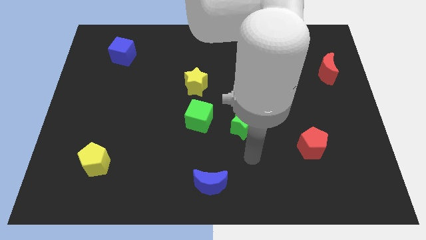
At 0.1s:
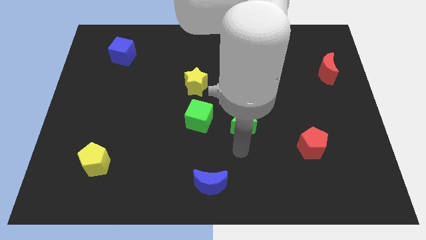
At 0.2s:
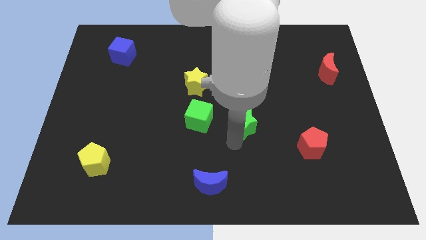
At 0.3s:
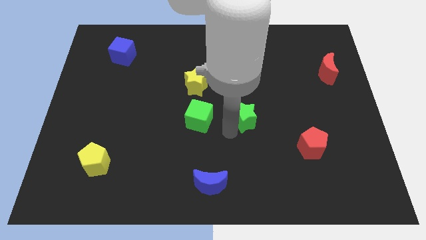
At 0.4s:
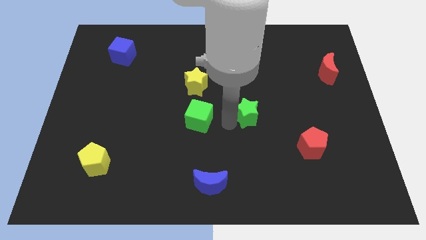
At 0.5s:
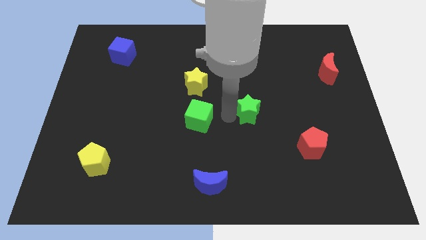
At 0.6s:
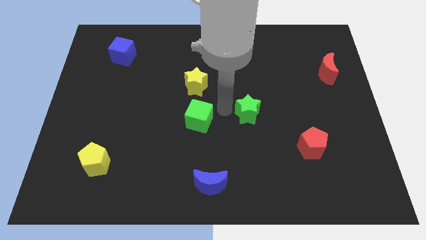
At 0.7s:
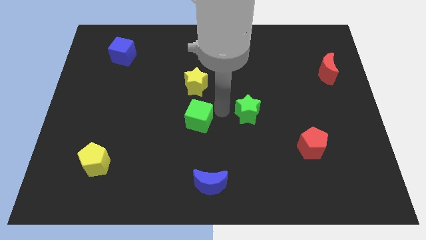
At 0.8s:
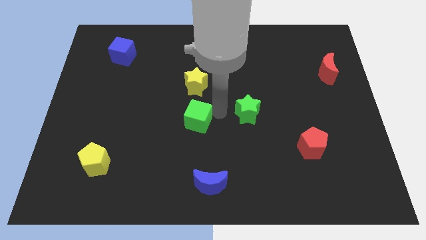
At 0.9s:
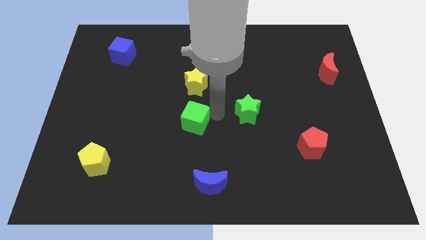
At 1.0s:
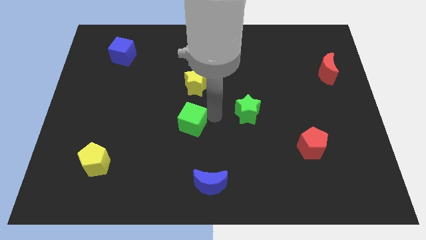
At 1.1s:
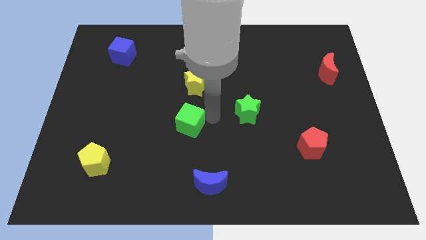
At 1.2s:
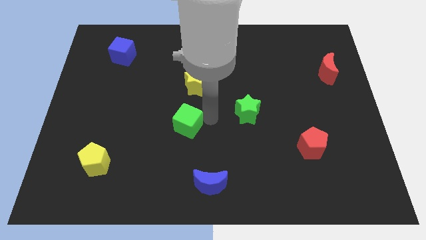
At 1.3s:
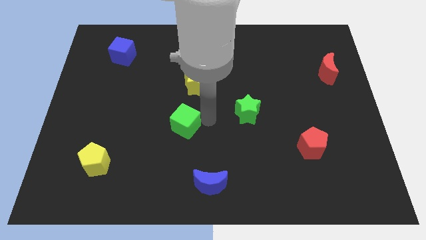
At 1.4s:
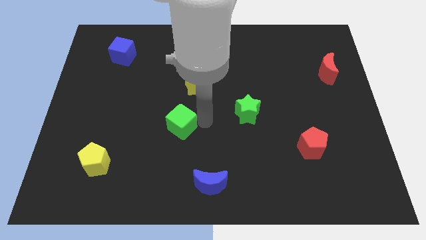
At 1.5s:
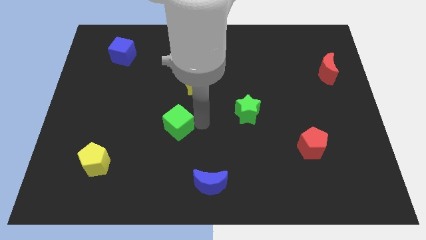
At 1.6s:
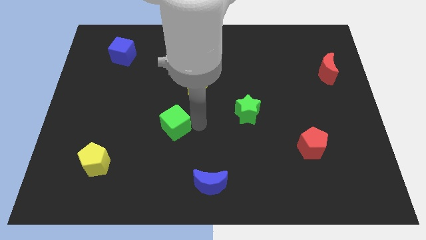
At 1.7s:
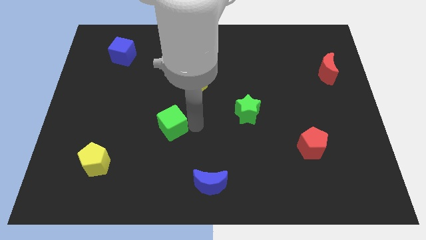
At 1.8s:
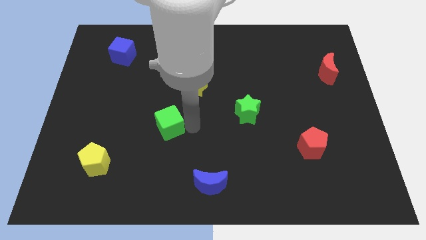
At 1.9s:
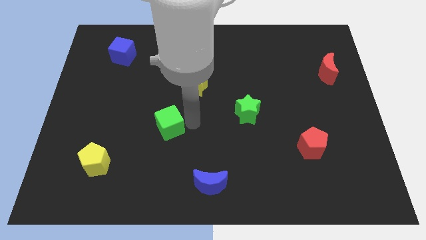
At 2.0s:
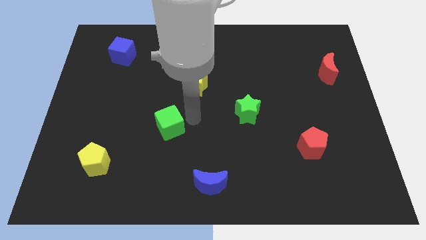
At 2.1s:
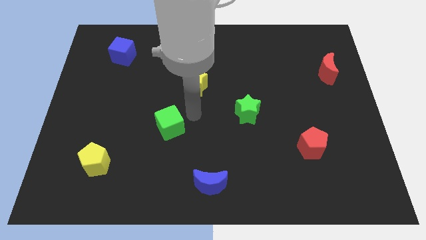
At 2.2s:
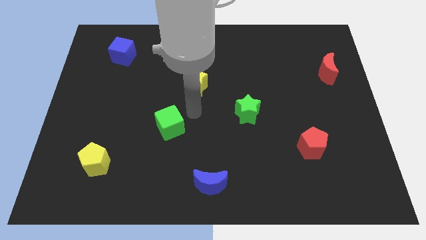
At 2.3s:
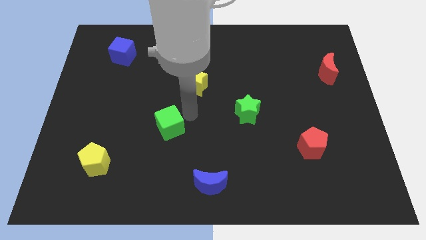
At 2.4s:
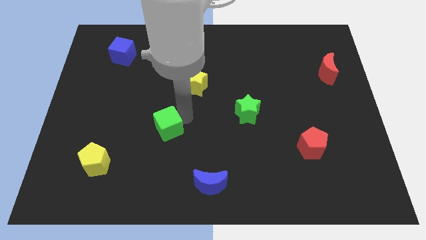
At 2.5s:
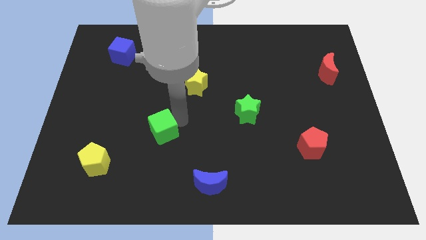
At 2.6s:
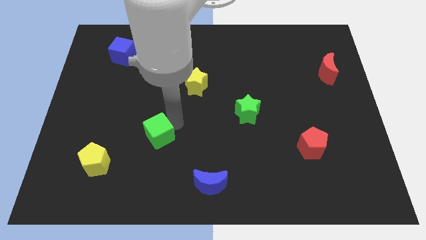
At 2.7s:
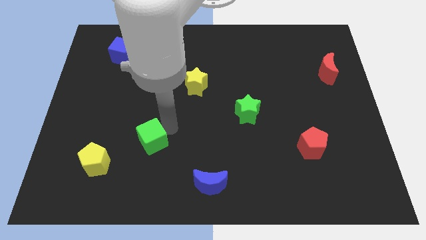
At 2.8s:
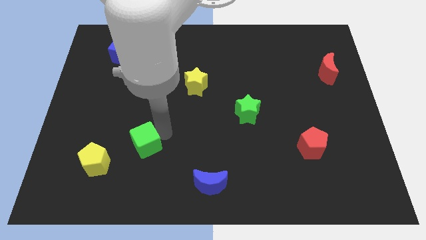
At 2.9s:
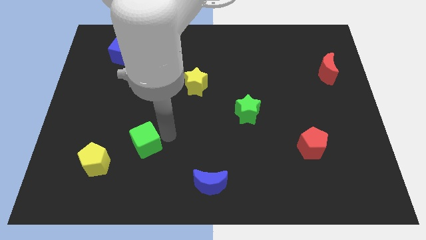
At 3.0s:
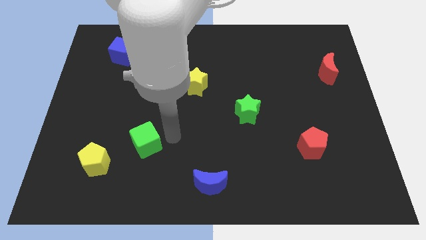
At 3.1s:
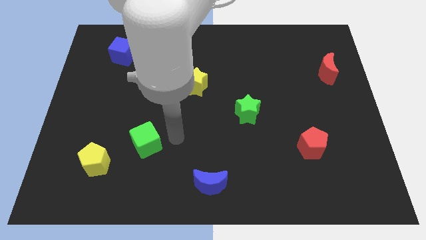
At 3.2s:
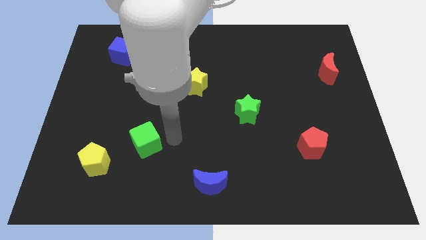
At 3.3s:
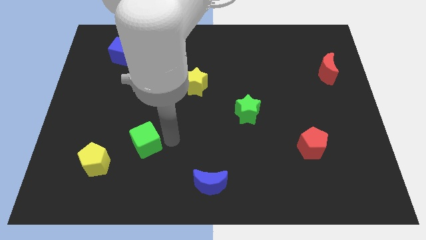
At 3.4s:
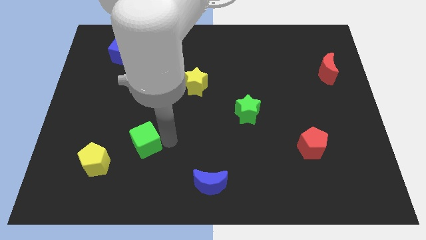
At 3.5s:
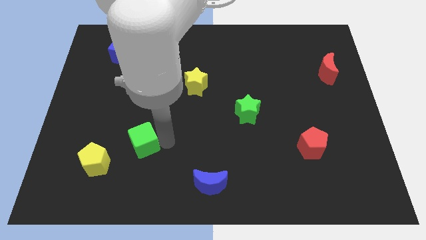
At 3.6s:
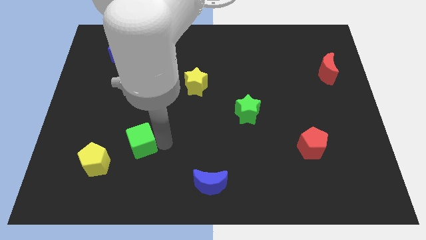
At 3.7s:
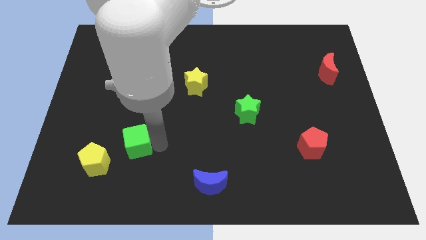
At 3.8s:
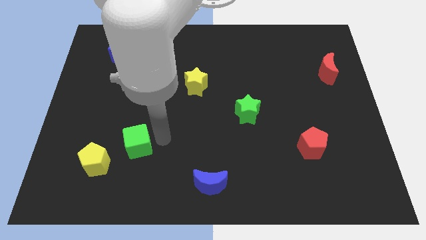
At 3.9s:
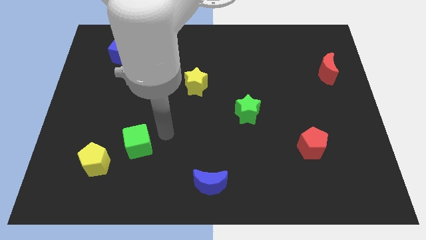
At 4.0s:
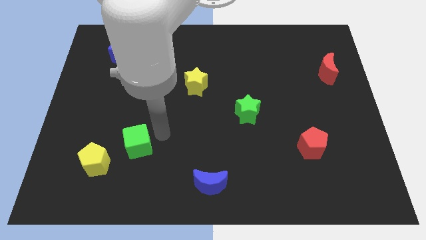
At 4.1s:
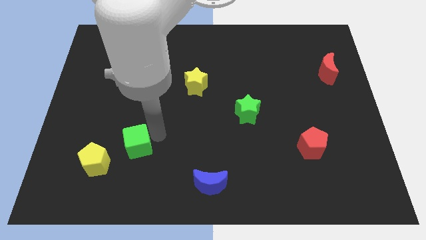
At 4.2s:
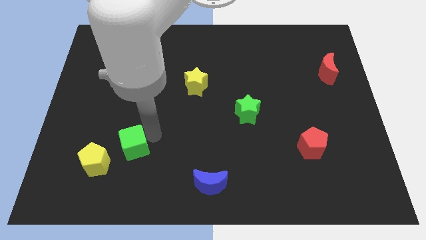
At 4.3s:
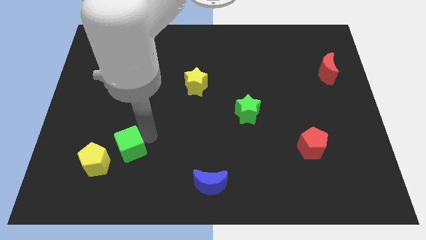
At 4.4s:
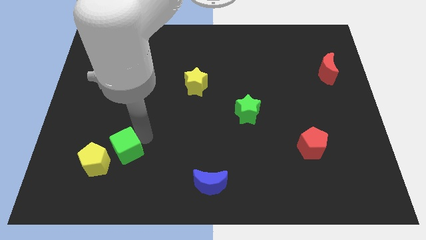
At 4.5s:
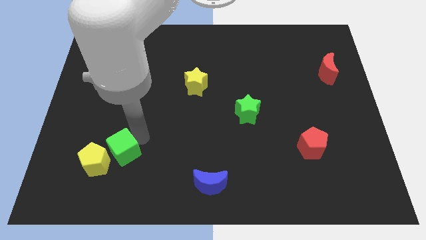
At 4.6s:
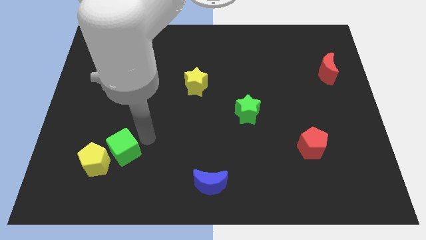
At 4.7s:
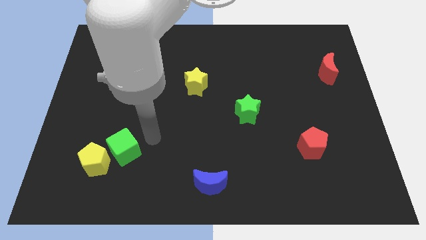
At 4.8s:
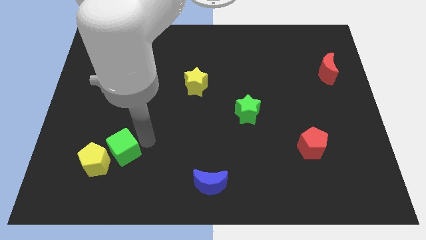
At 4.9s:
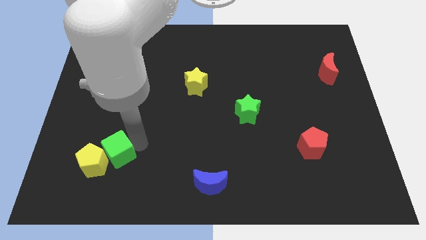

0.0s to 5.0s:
slide the green cube next to the yellow pentagon

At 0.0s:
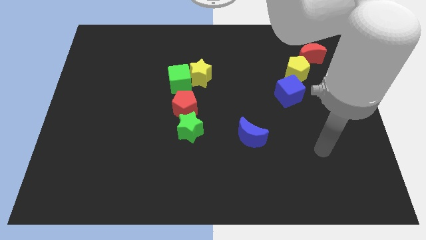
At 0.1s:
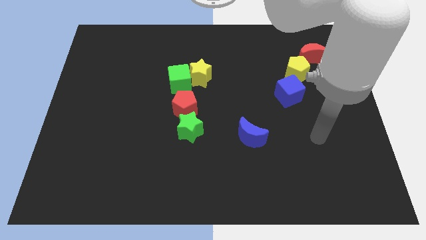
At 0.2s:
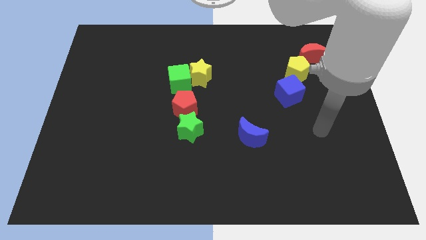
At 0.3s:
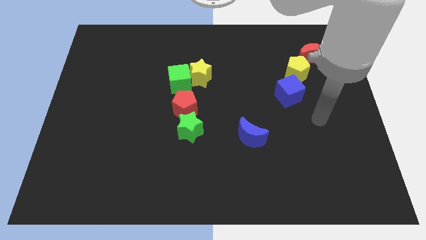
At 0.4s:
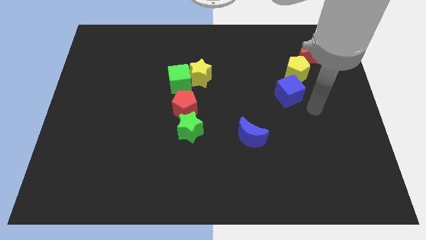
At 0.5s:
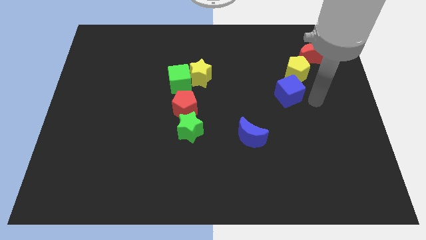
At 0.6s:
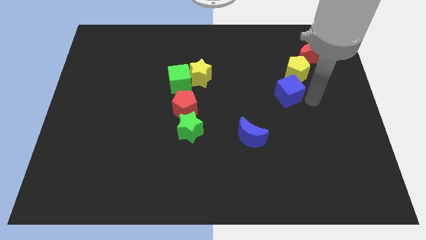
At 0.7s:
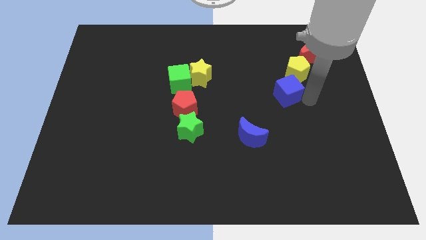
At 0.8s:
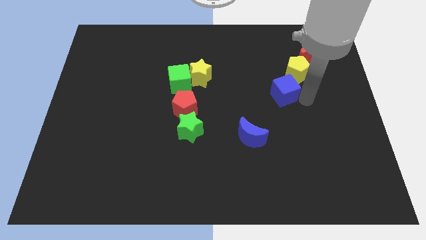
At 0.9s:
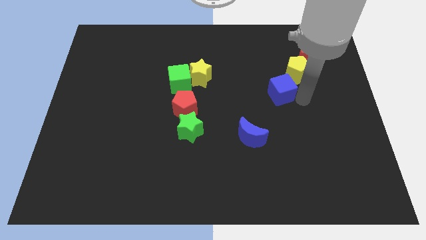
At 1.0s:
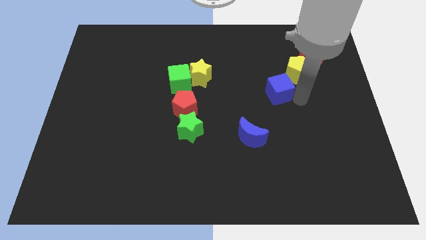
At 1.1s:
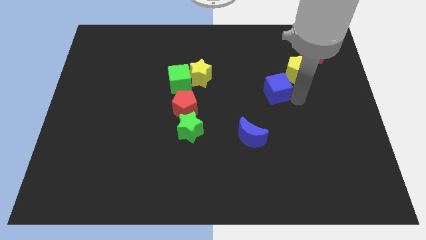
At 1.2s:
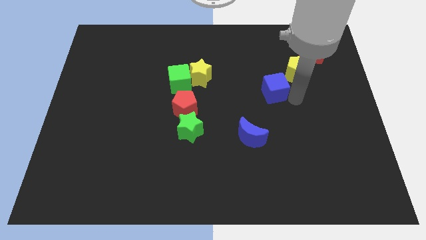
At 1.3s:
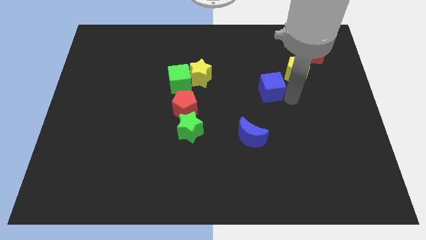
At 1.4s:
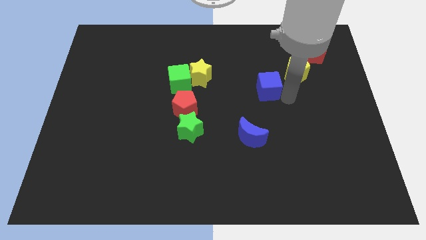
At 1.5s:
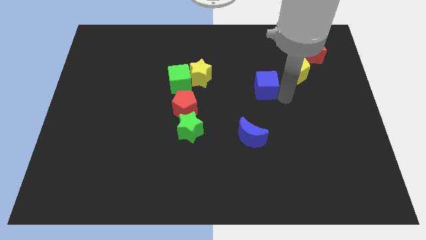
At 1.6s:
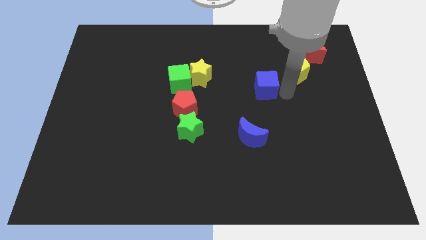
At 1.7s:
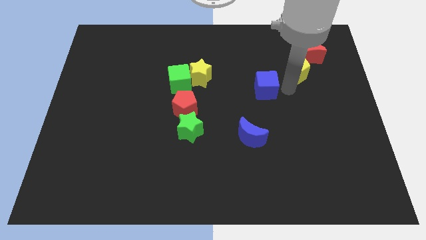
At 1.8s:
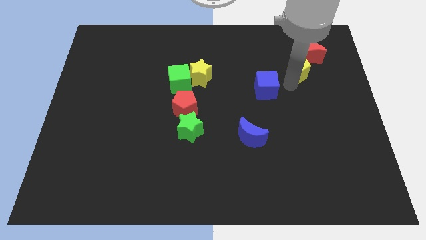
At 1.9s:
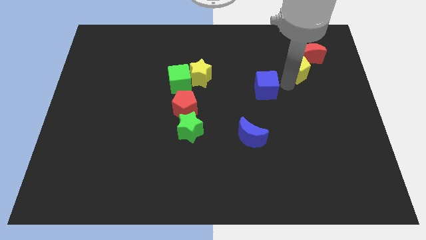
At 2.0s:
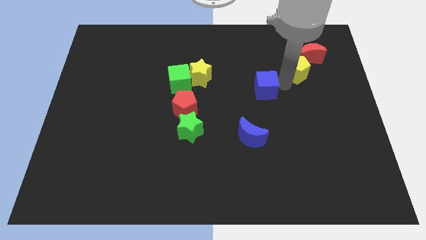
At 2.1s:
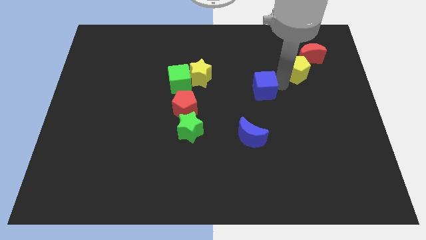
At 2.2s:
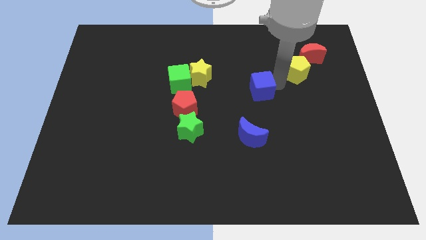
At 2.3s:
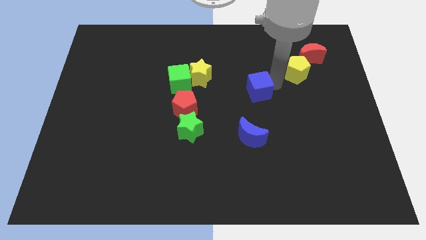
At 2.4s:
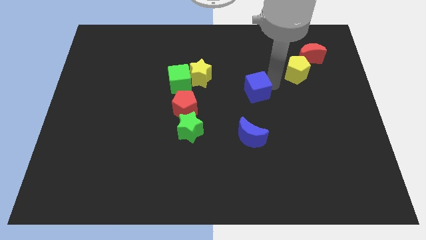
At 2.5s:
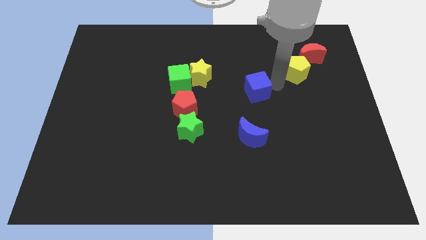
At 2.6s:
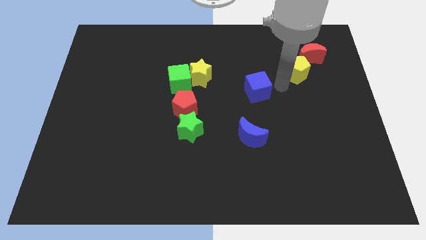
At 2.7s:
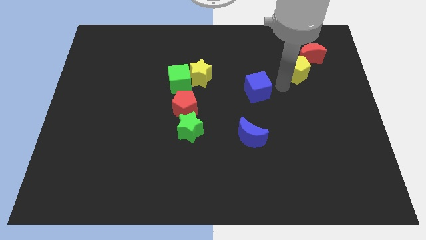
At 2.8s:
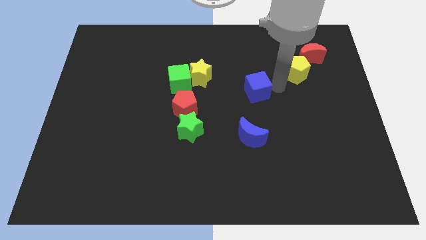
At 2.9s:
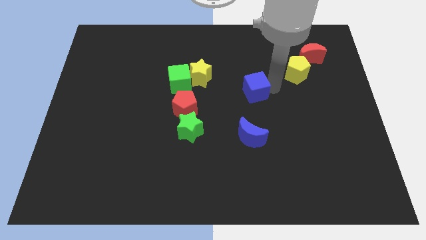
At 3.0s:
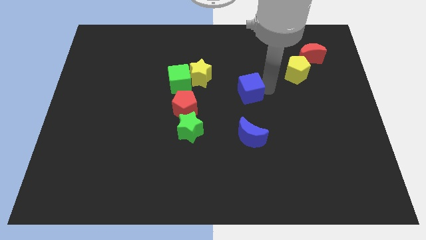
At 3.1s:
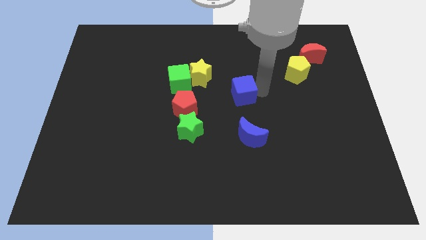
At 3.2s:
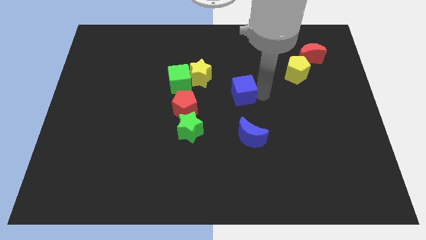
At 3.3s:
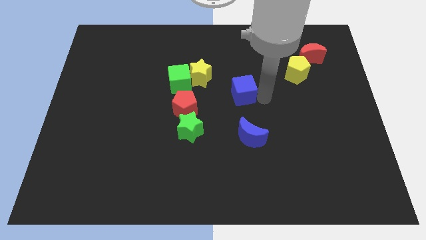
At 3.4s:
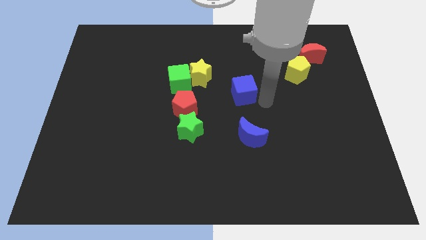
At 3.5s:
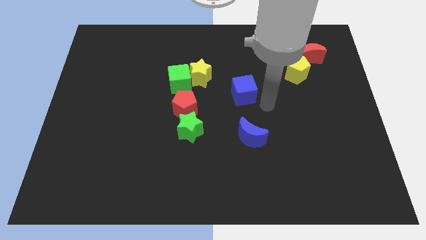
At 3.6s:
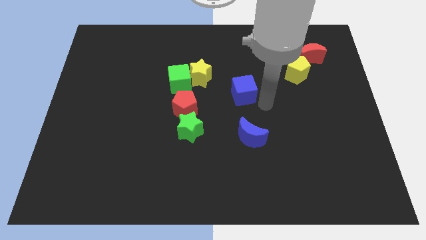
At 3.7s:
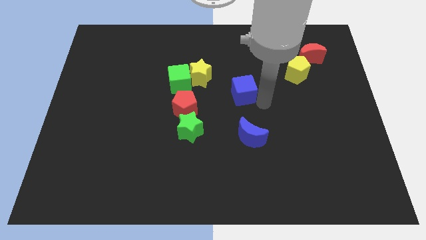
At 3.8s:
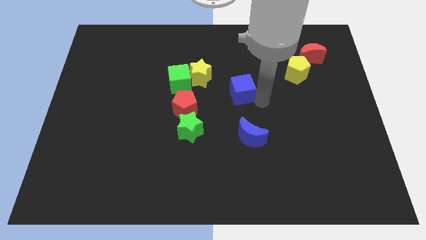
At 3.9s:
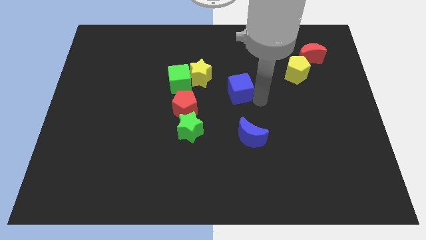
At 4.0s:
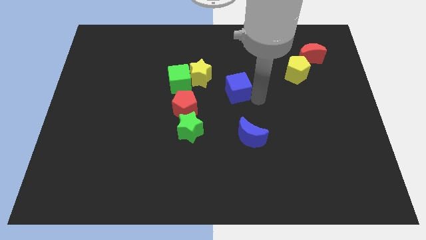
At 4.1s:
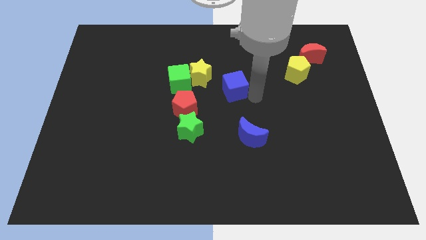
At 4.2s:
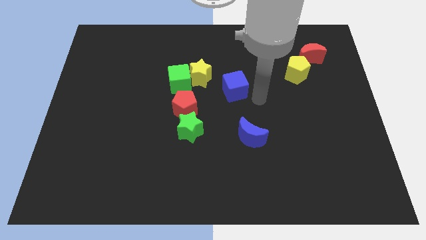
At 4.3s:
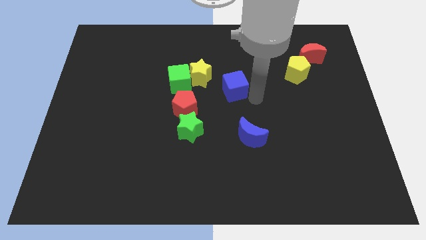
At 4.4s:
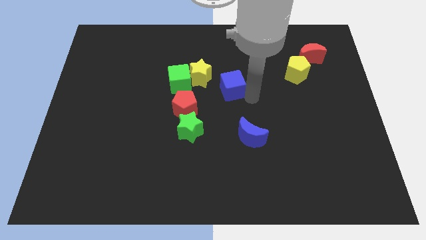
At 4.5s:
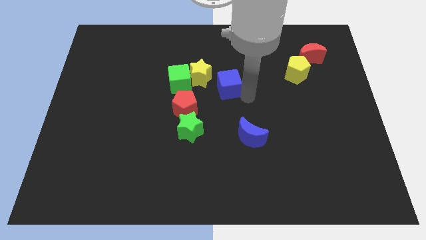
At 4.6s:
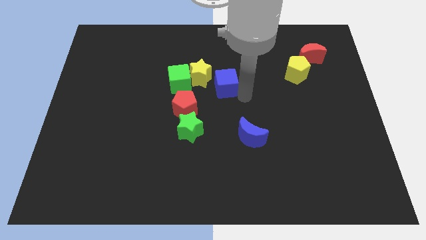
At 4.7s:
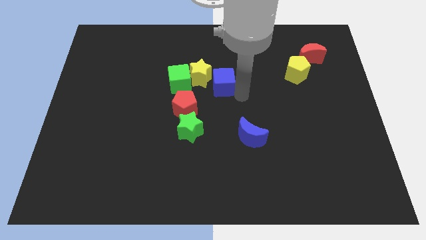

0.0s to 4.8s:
slide the blue cube next to the yellow star
